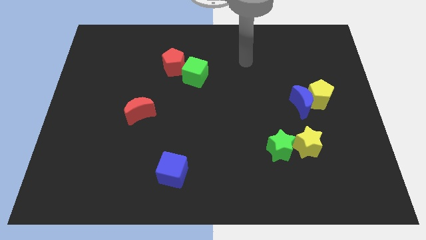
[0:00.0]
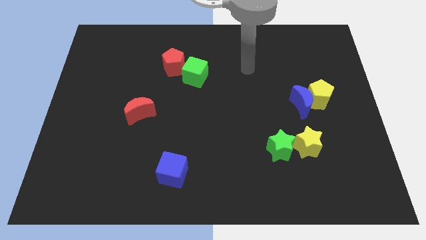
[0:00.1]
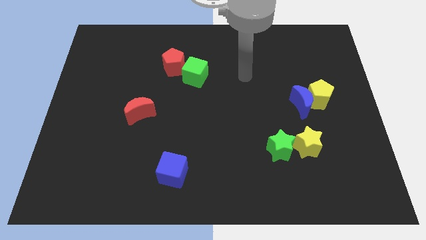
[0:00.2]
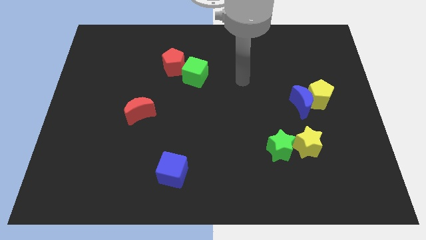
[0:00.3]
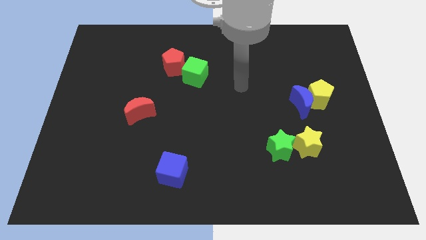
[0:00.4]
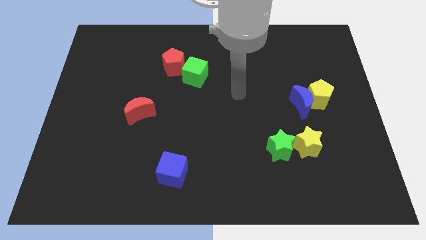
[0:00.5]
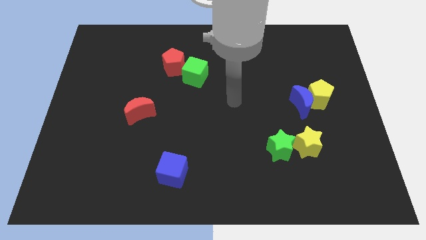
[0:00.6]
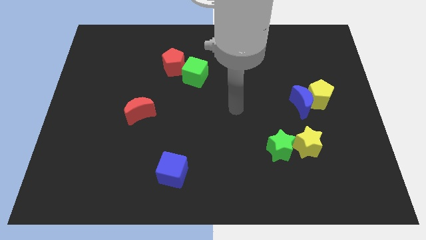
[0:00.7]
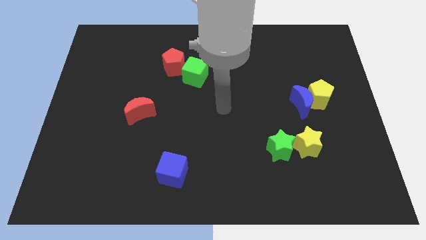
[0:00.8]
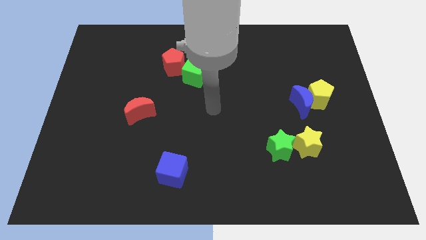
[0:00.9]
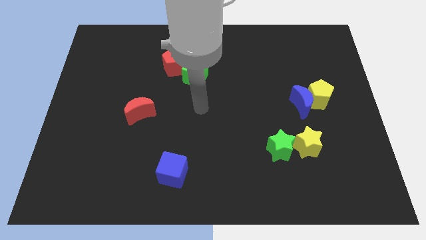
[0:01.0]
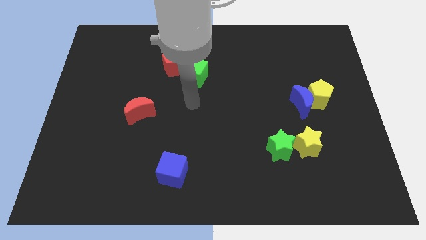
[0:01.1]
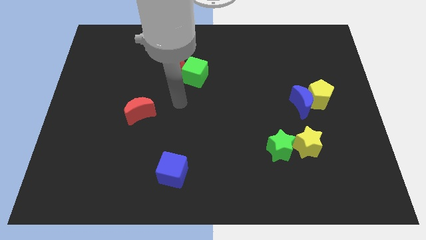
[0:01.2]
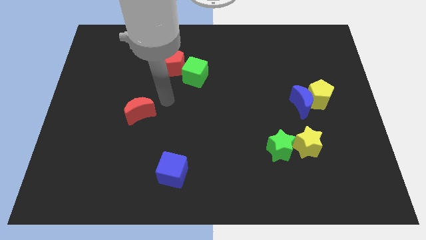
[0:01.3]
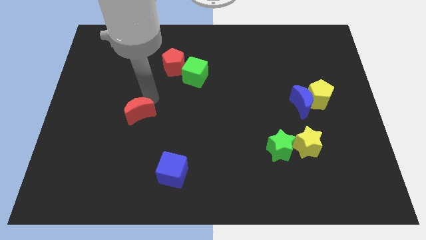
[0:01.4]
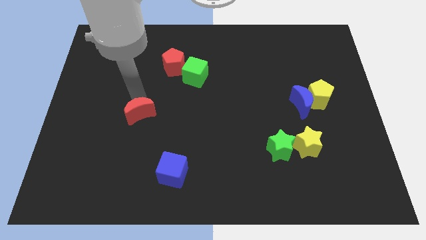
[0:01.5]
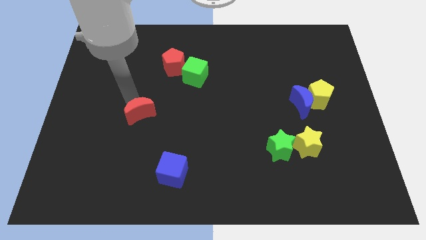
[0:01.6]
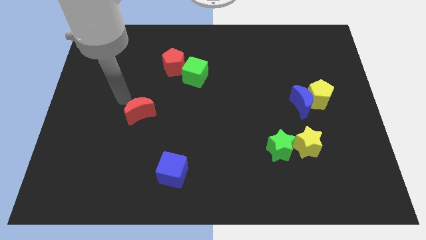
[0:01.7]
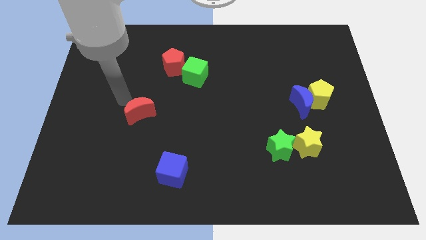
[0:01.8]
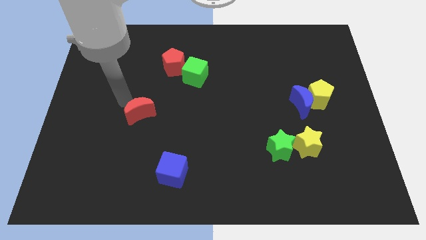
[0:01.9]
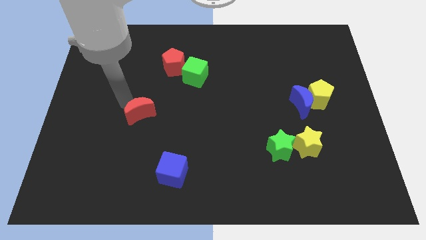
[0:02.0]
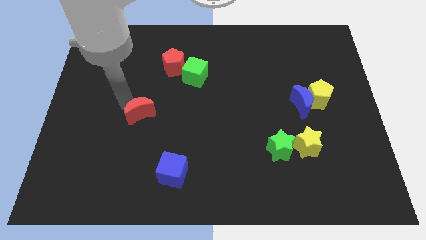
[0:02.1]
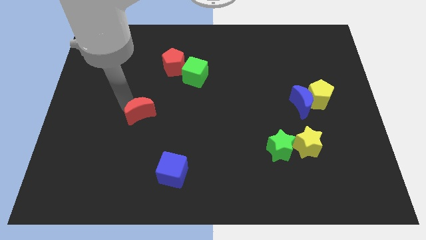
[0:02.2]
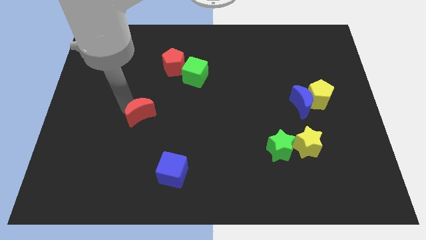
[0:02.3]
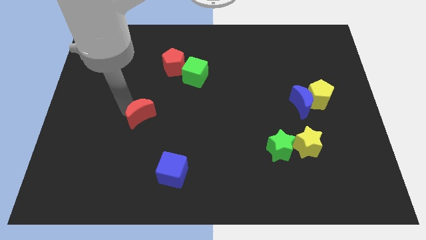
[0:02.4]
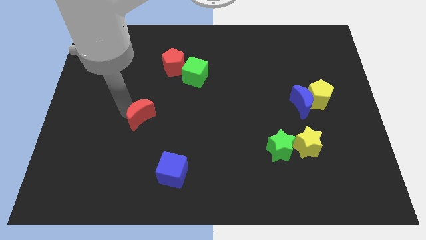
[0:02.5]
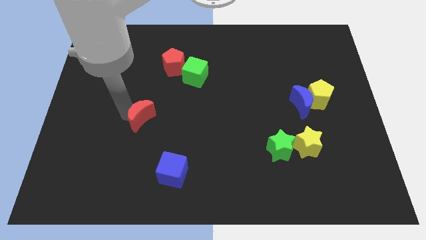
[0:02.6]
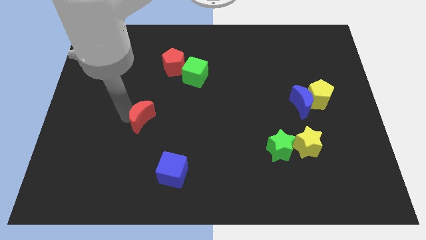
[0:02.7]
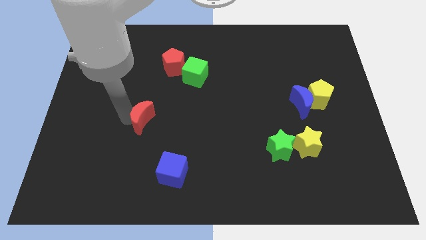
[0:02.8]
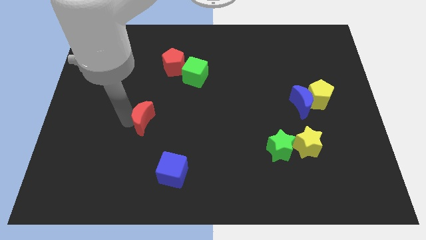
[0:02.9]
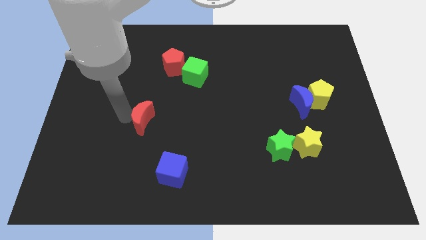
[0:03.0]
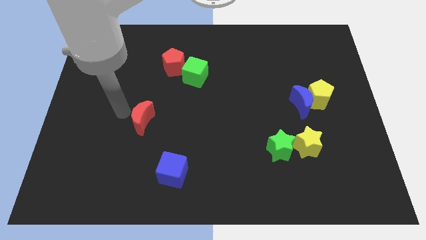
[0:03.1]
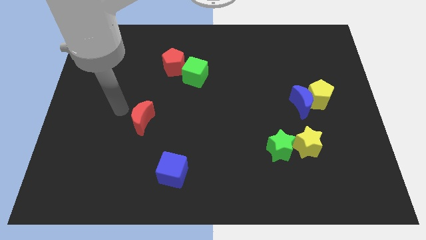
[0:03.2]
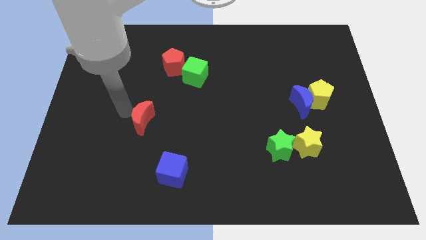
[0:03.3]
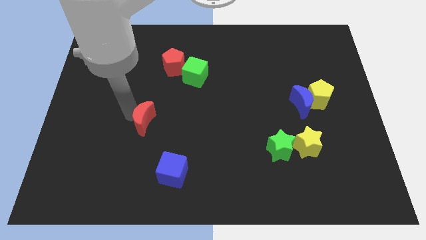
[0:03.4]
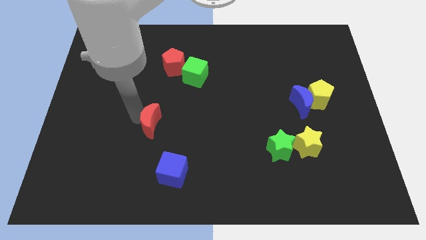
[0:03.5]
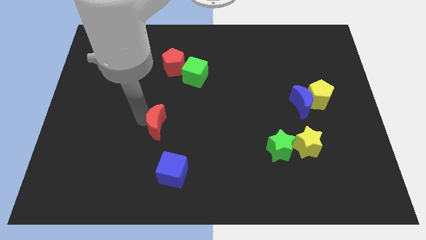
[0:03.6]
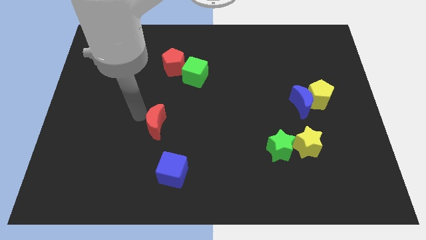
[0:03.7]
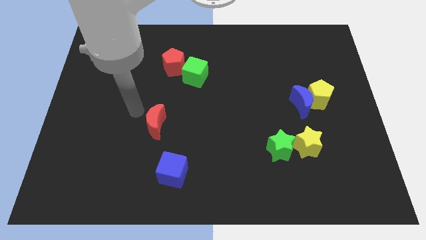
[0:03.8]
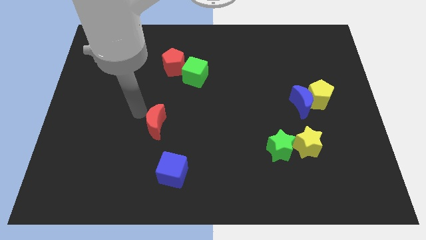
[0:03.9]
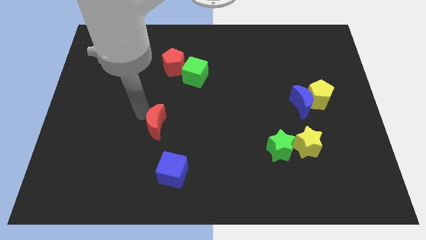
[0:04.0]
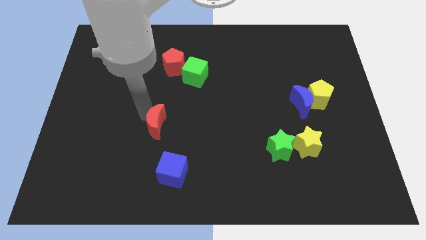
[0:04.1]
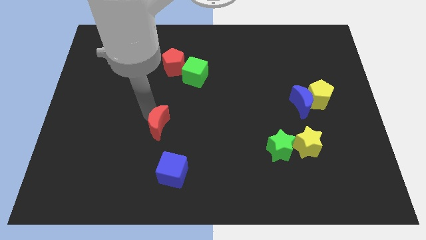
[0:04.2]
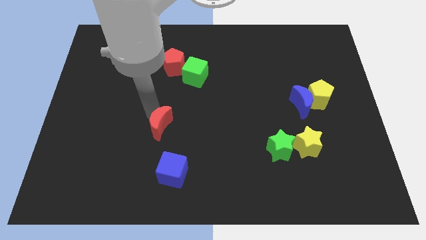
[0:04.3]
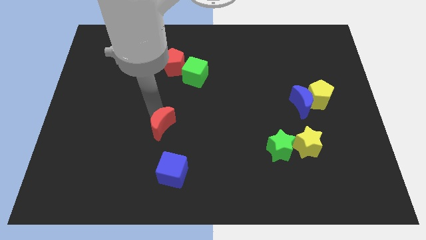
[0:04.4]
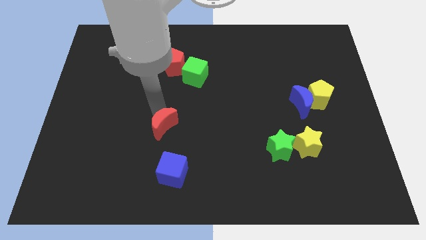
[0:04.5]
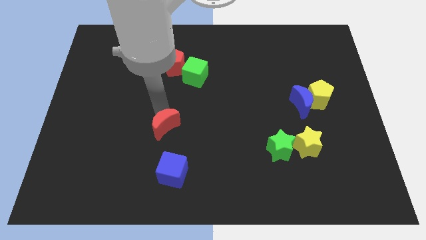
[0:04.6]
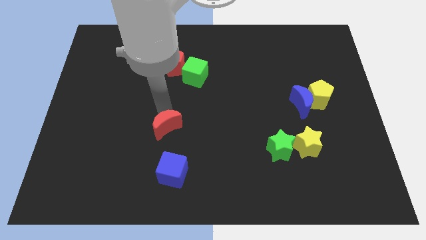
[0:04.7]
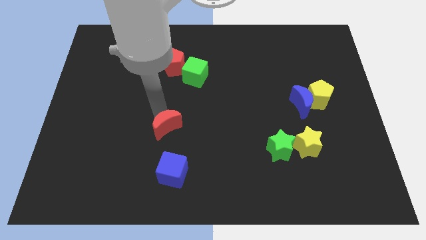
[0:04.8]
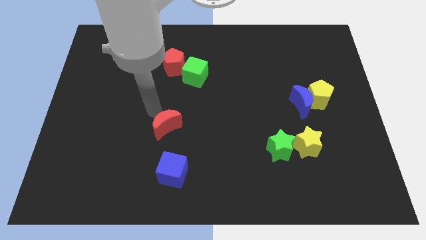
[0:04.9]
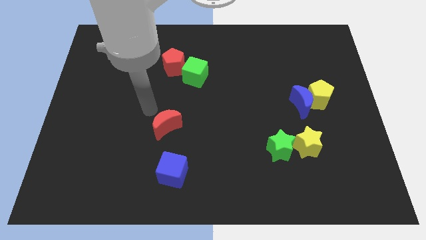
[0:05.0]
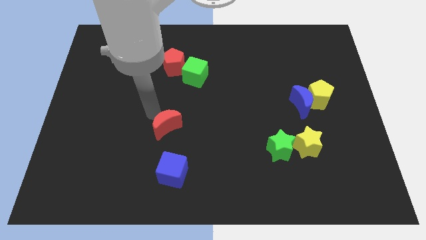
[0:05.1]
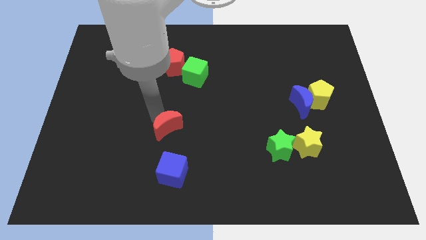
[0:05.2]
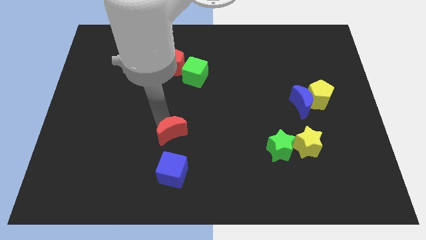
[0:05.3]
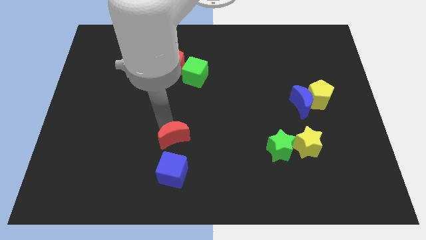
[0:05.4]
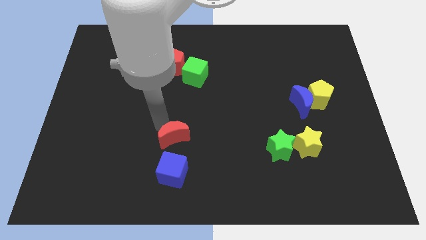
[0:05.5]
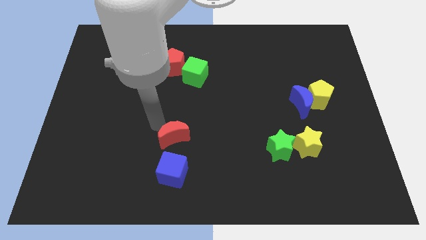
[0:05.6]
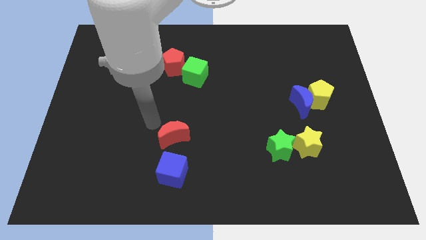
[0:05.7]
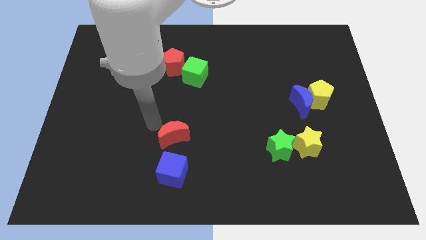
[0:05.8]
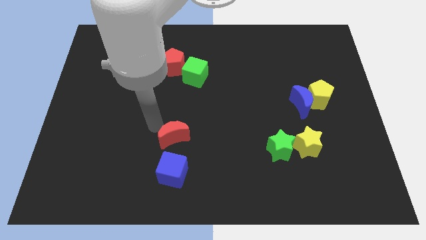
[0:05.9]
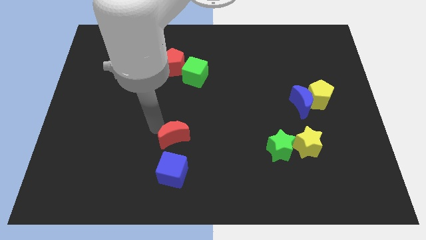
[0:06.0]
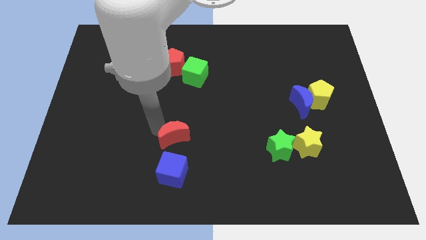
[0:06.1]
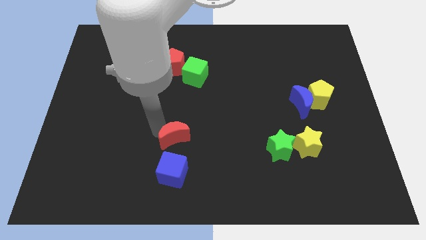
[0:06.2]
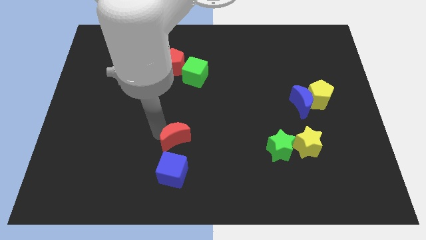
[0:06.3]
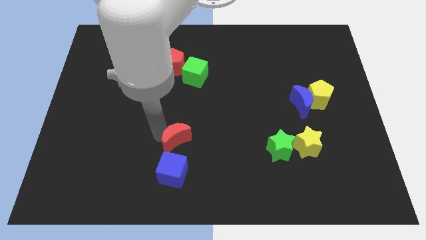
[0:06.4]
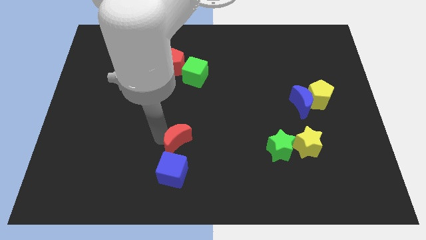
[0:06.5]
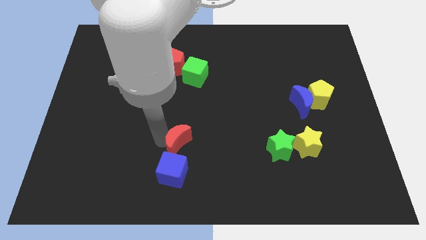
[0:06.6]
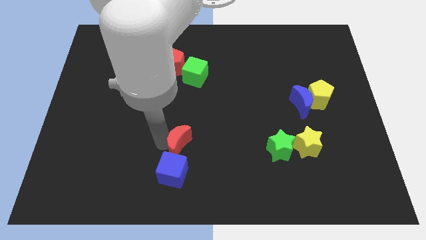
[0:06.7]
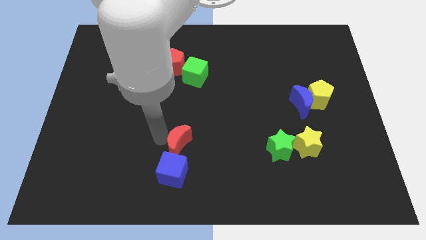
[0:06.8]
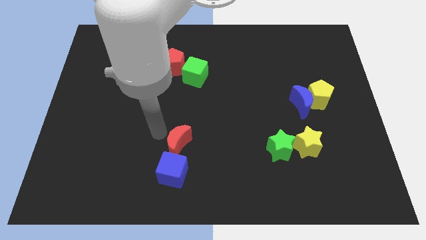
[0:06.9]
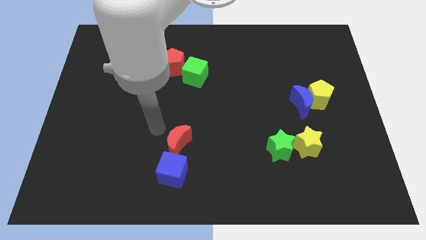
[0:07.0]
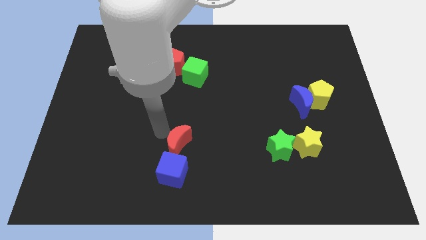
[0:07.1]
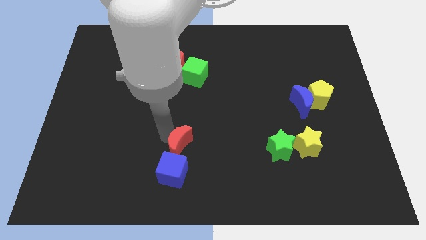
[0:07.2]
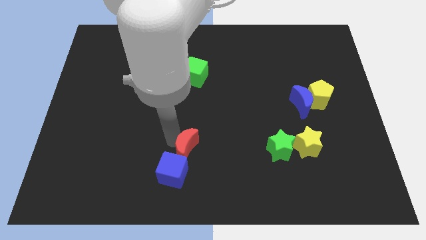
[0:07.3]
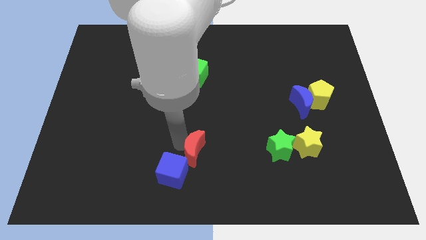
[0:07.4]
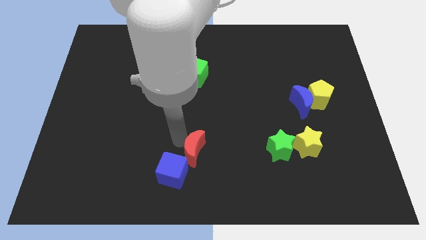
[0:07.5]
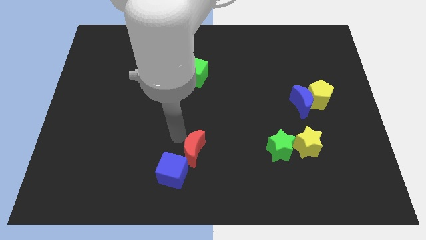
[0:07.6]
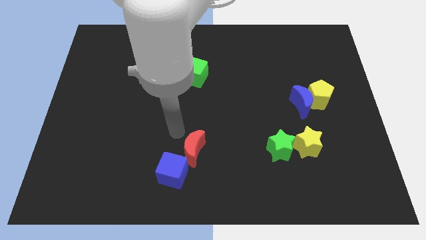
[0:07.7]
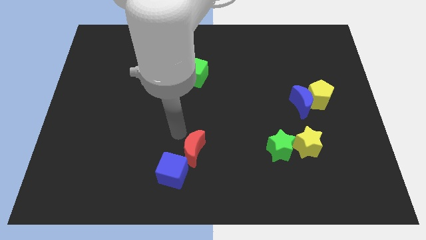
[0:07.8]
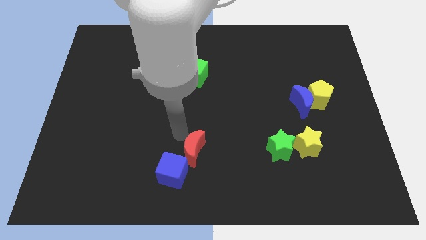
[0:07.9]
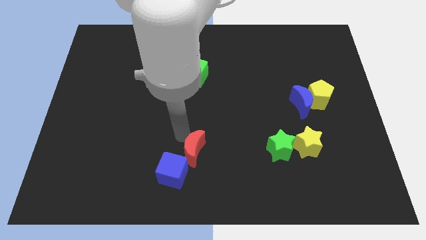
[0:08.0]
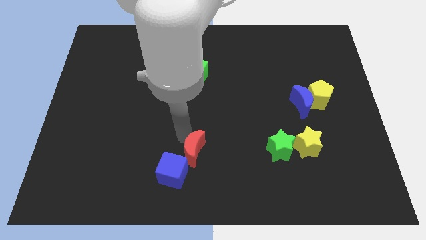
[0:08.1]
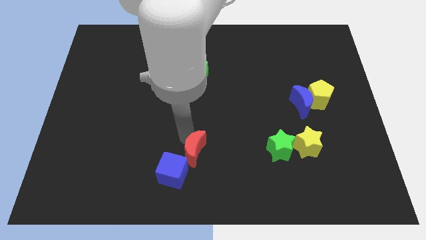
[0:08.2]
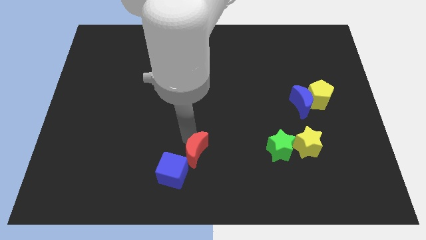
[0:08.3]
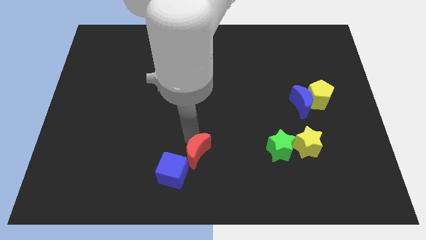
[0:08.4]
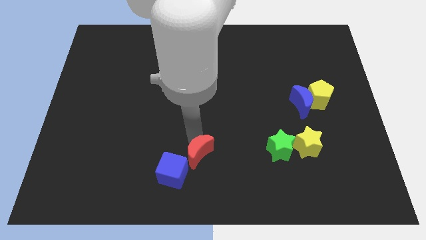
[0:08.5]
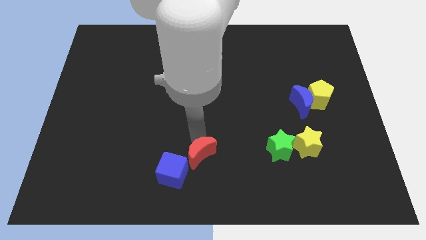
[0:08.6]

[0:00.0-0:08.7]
push the red moon to the bottom
